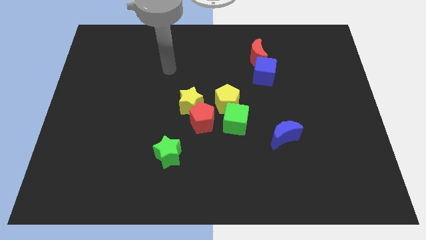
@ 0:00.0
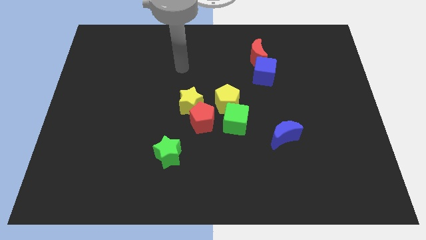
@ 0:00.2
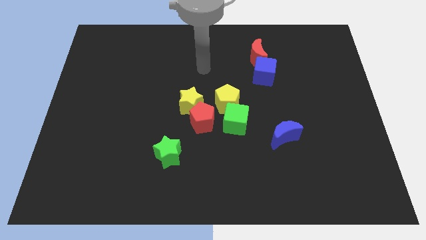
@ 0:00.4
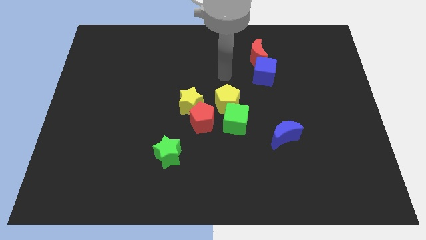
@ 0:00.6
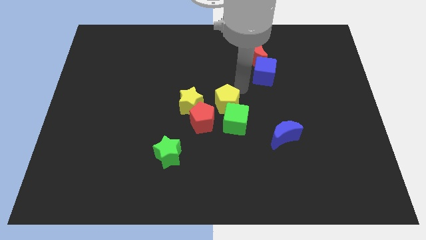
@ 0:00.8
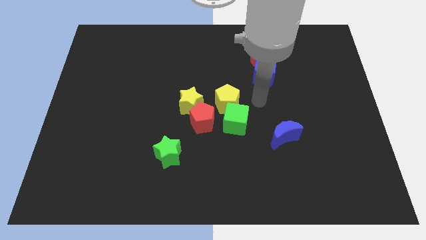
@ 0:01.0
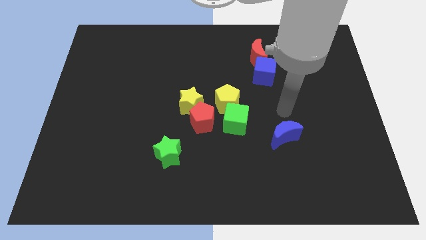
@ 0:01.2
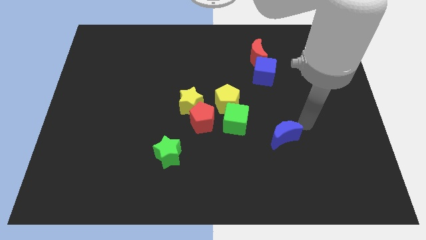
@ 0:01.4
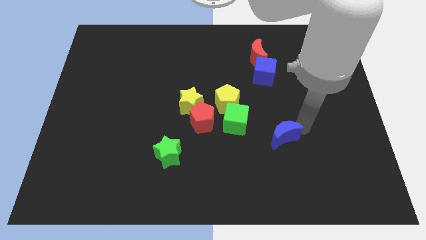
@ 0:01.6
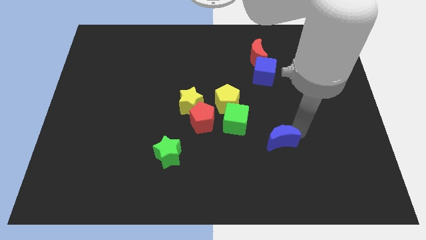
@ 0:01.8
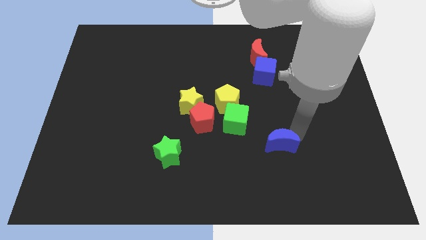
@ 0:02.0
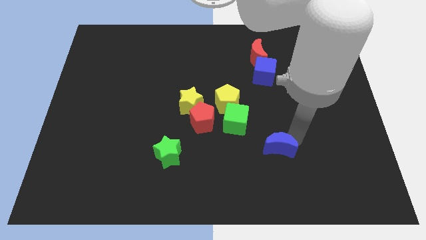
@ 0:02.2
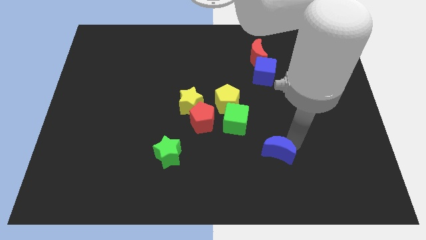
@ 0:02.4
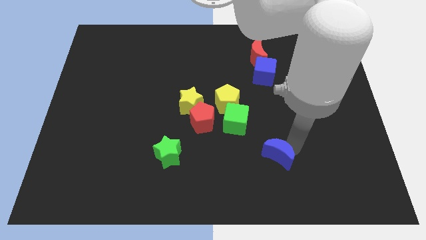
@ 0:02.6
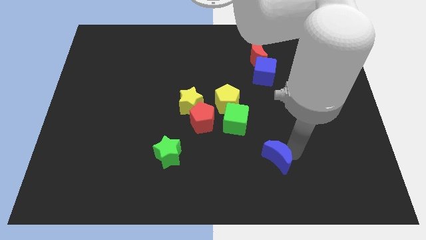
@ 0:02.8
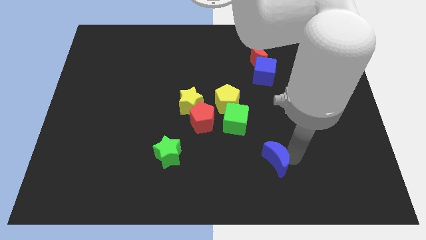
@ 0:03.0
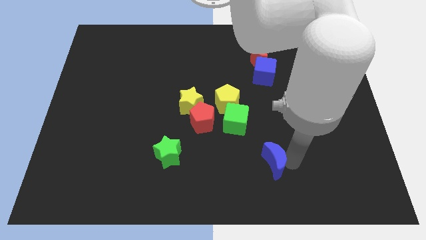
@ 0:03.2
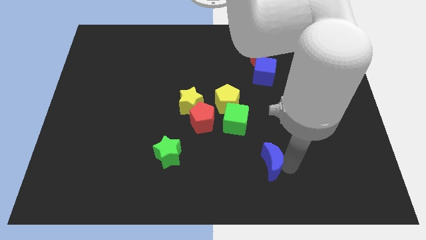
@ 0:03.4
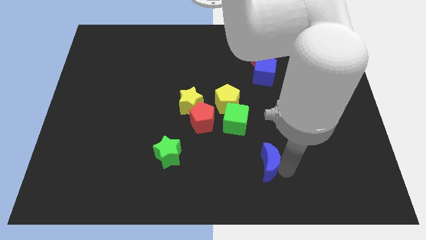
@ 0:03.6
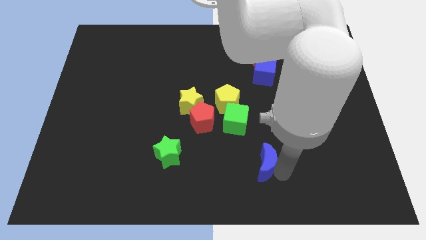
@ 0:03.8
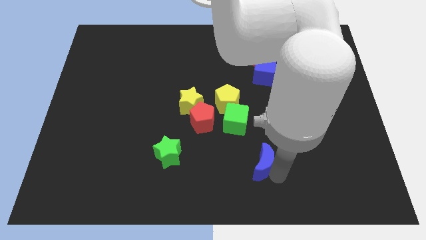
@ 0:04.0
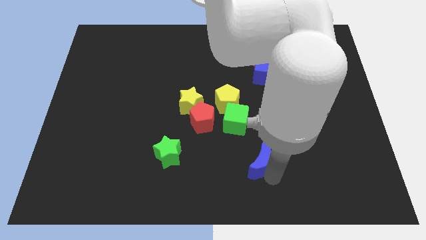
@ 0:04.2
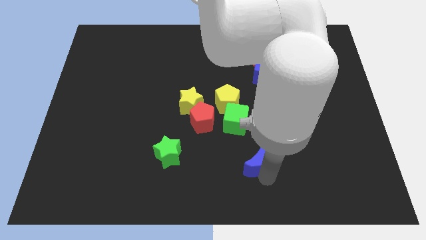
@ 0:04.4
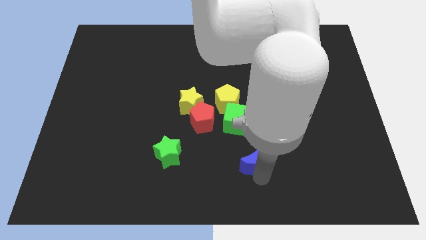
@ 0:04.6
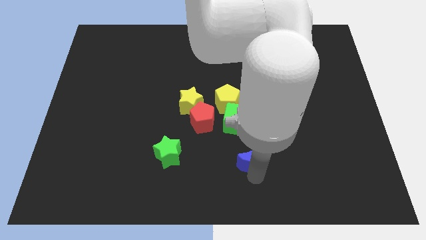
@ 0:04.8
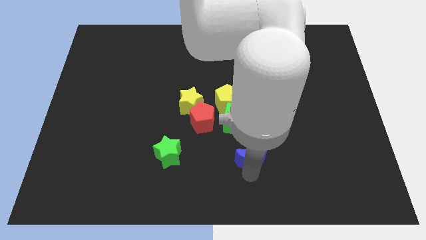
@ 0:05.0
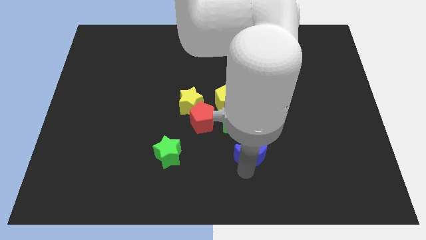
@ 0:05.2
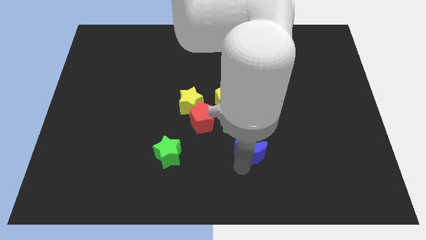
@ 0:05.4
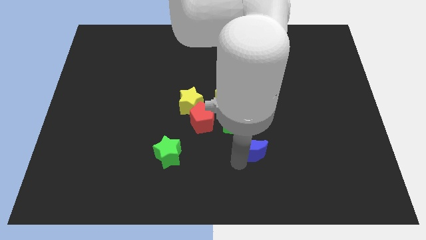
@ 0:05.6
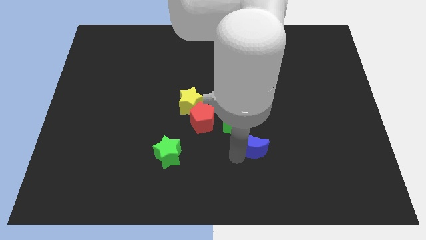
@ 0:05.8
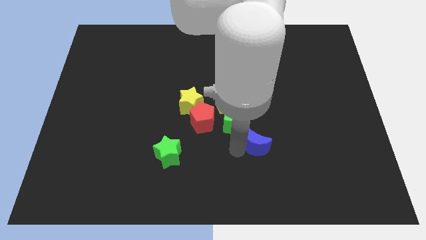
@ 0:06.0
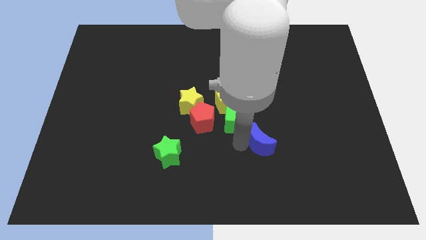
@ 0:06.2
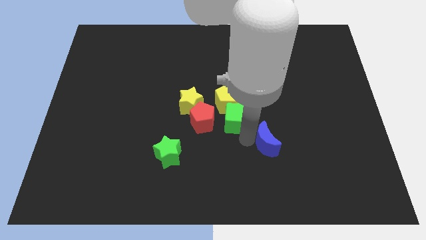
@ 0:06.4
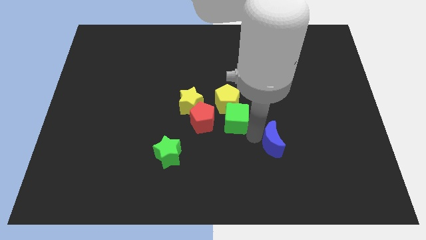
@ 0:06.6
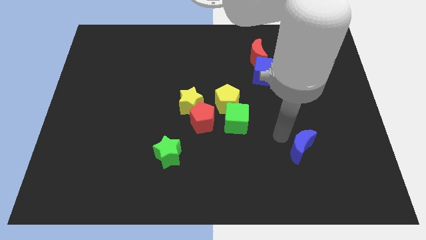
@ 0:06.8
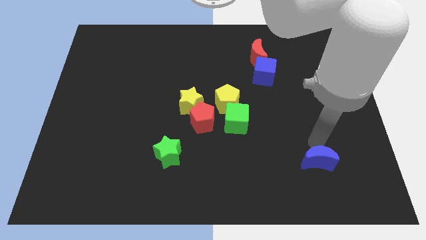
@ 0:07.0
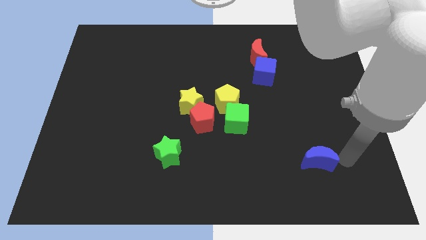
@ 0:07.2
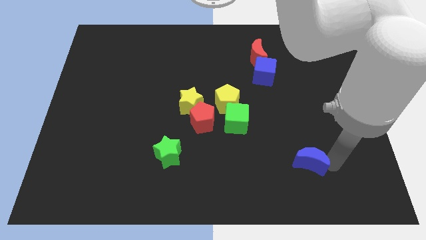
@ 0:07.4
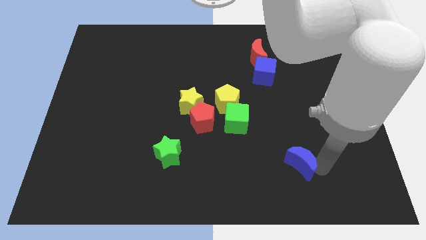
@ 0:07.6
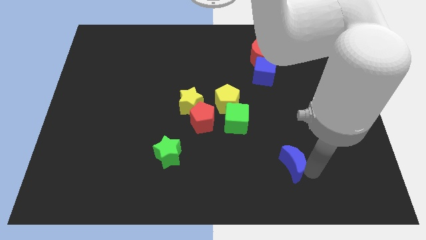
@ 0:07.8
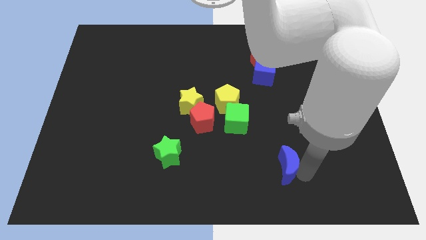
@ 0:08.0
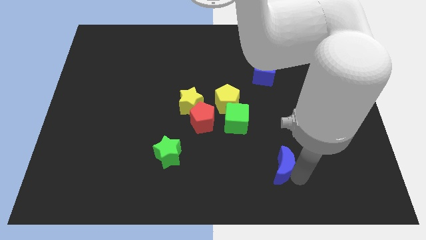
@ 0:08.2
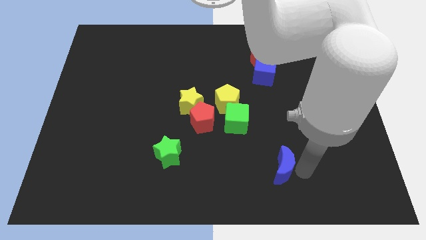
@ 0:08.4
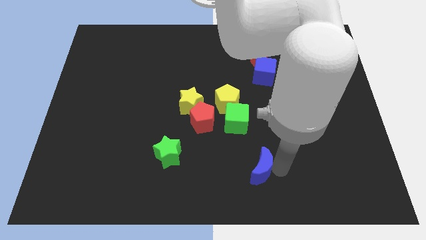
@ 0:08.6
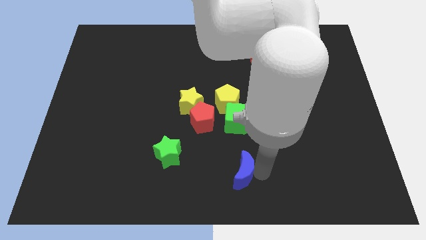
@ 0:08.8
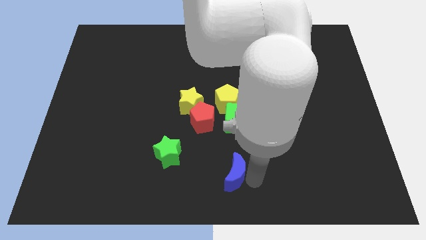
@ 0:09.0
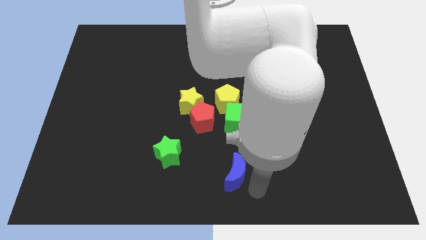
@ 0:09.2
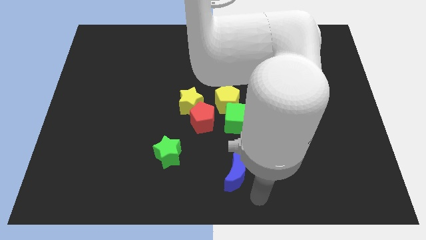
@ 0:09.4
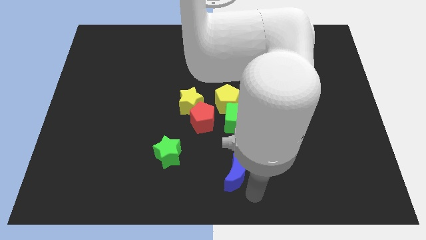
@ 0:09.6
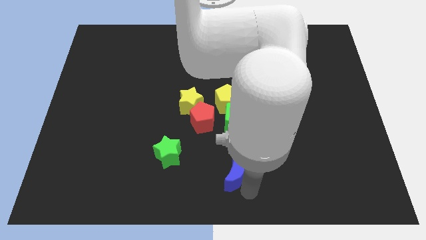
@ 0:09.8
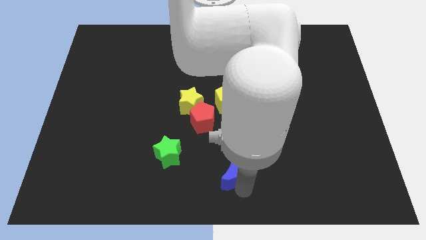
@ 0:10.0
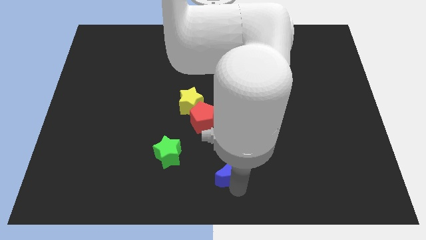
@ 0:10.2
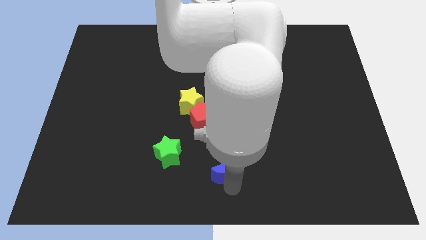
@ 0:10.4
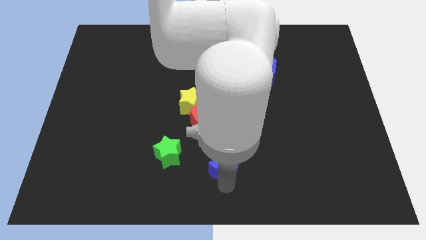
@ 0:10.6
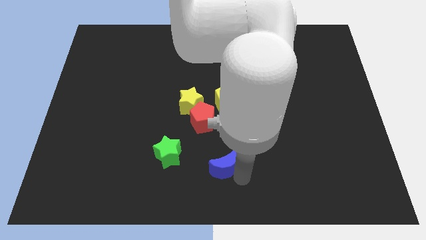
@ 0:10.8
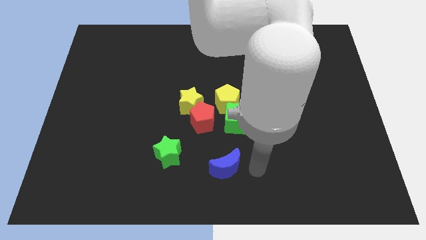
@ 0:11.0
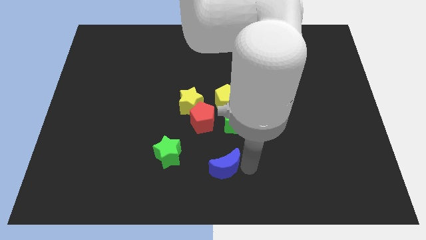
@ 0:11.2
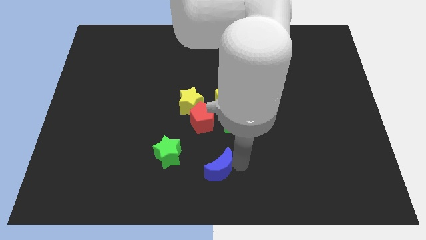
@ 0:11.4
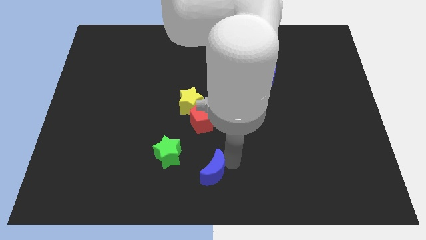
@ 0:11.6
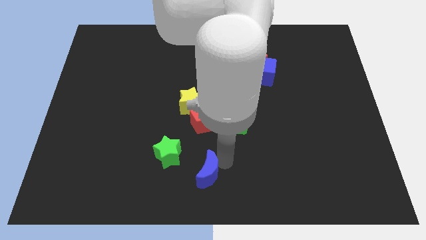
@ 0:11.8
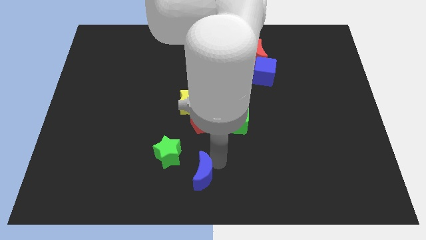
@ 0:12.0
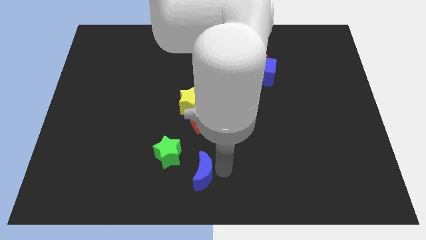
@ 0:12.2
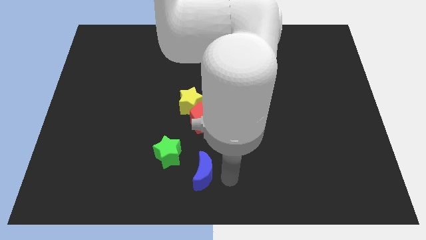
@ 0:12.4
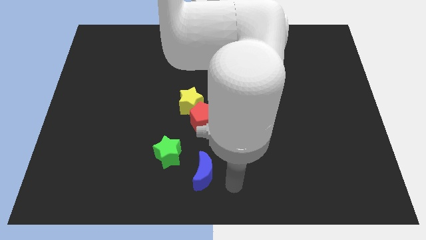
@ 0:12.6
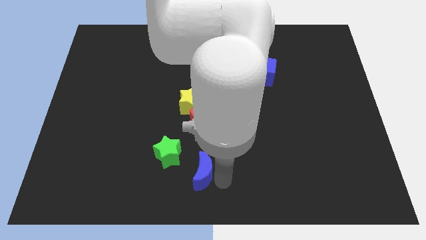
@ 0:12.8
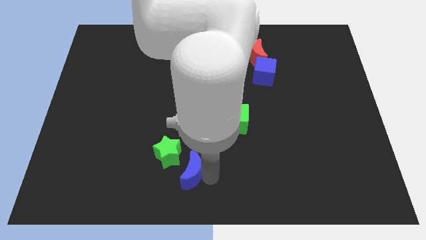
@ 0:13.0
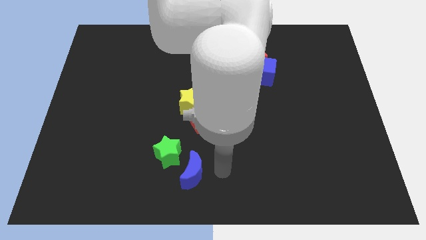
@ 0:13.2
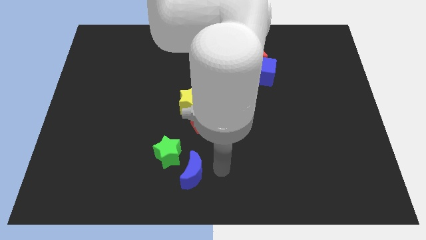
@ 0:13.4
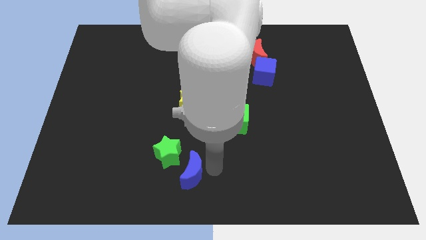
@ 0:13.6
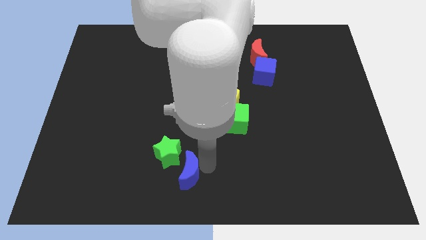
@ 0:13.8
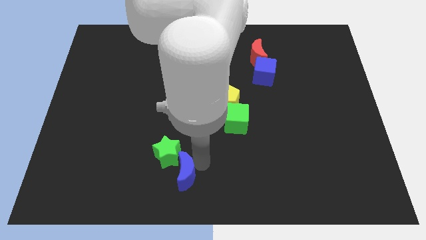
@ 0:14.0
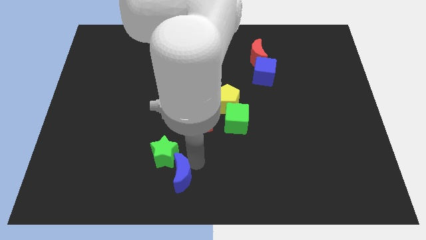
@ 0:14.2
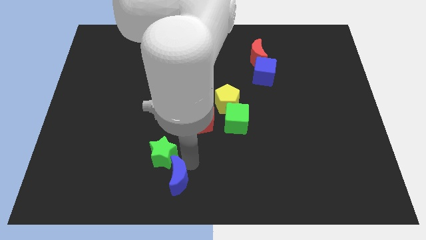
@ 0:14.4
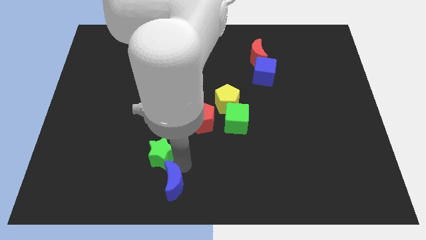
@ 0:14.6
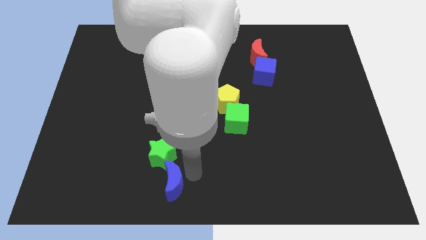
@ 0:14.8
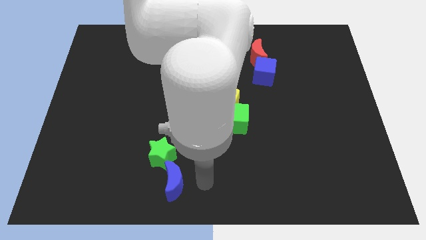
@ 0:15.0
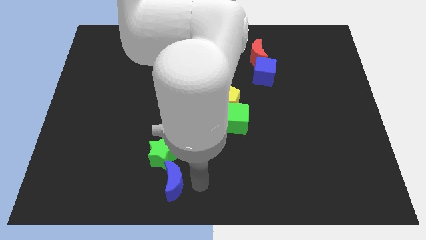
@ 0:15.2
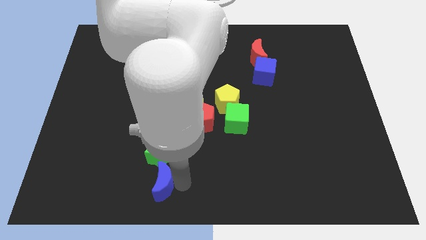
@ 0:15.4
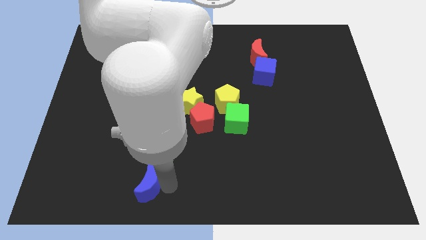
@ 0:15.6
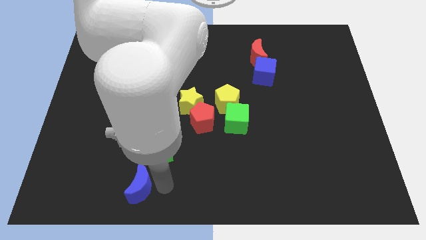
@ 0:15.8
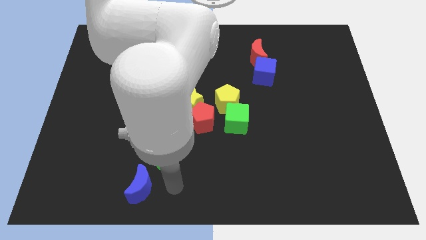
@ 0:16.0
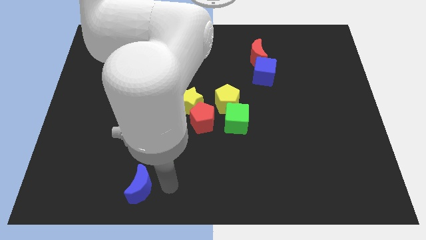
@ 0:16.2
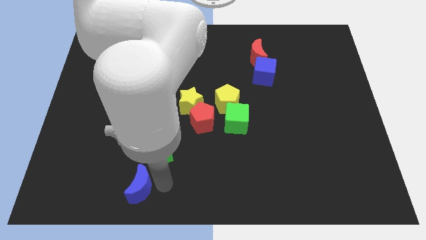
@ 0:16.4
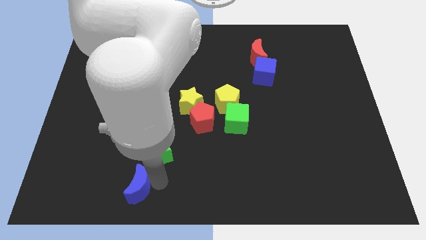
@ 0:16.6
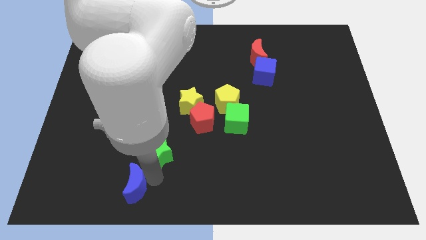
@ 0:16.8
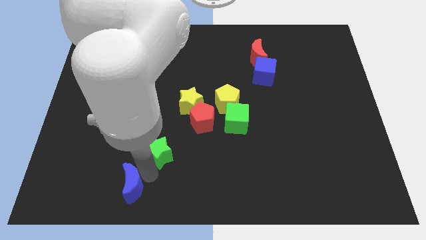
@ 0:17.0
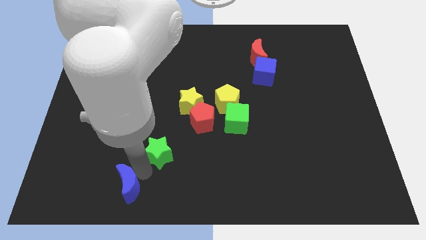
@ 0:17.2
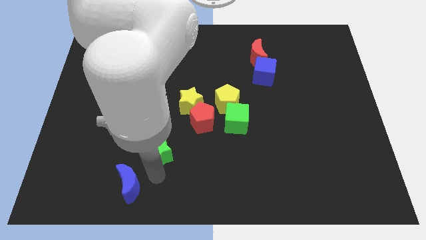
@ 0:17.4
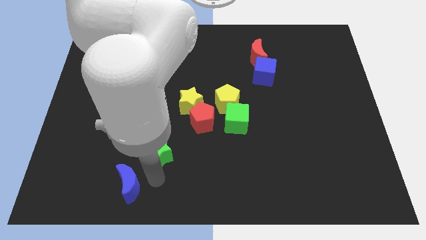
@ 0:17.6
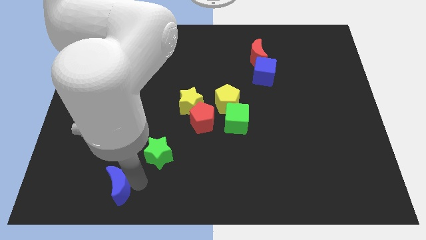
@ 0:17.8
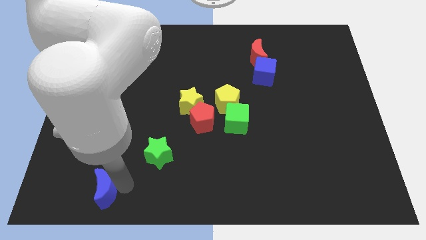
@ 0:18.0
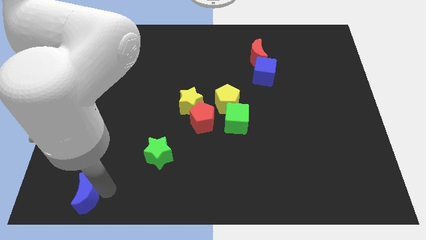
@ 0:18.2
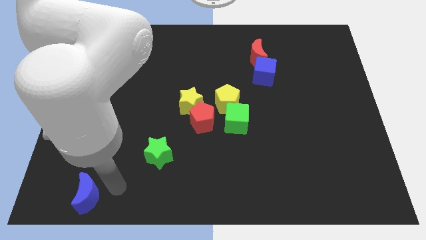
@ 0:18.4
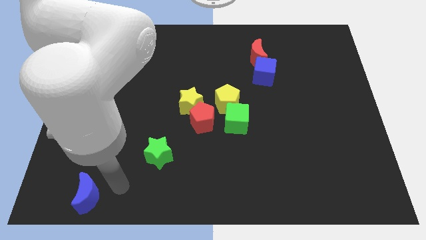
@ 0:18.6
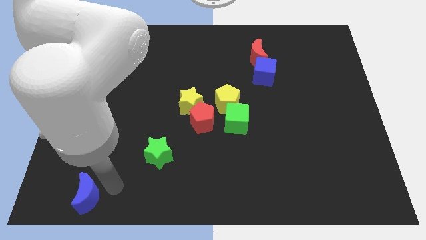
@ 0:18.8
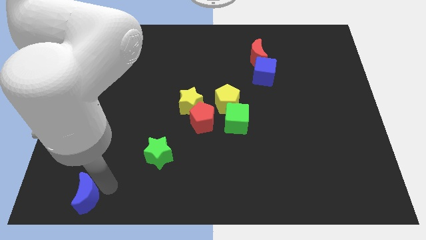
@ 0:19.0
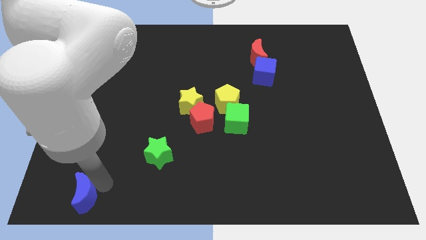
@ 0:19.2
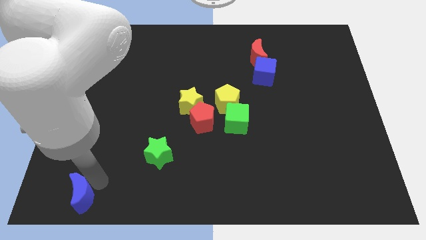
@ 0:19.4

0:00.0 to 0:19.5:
move the blue moon to the lower left corner
